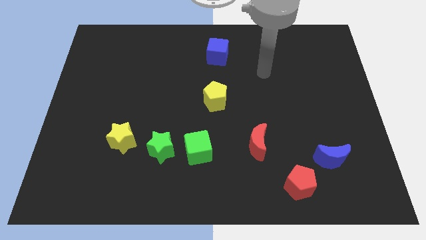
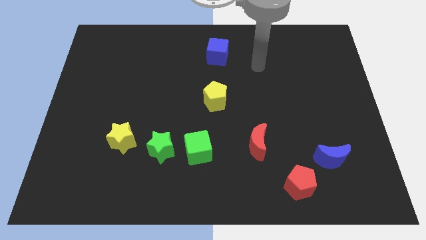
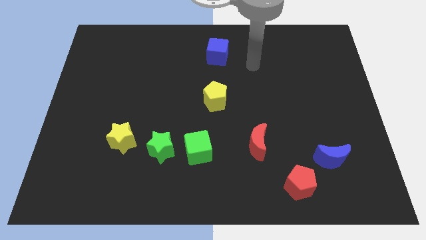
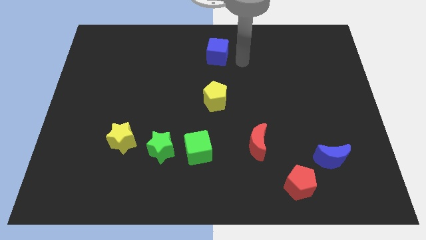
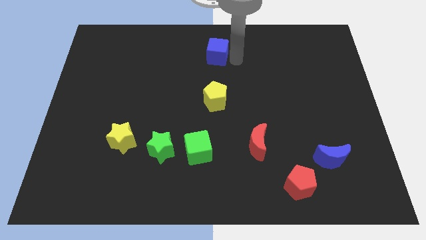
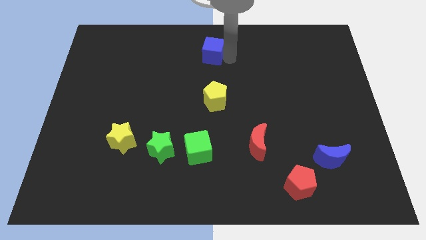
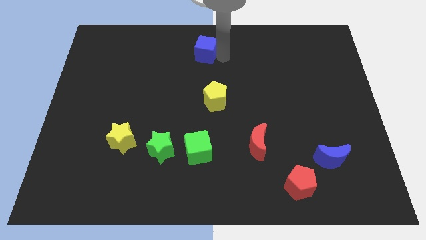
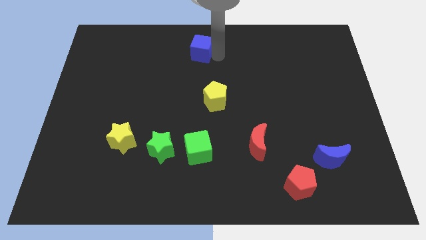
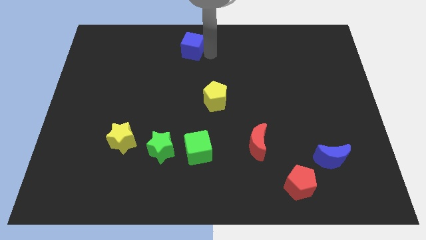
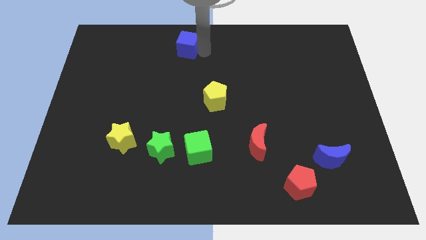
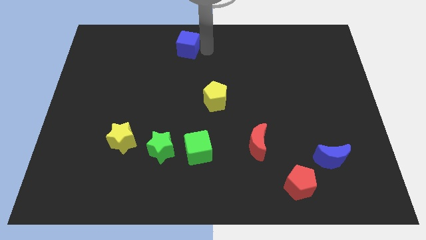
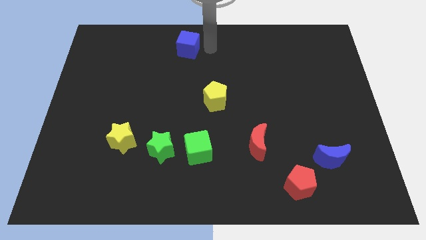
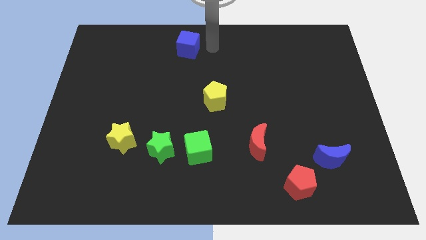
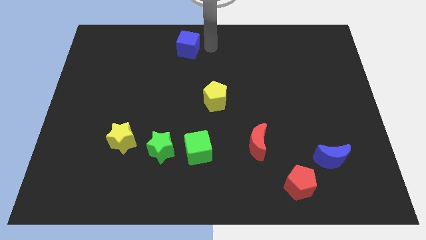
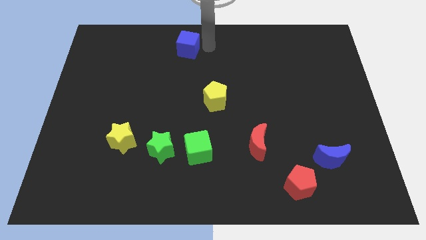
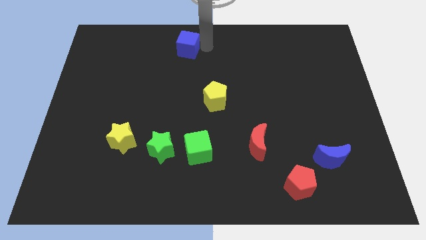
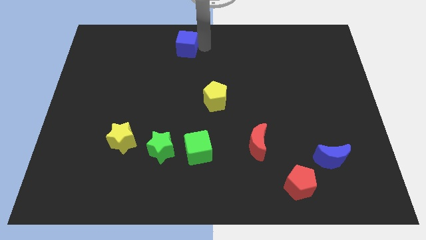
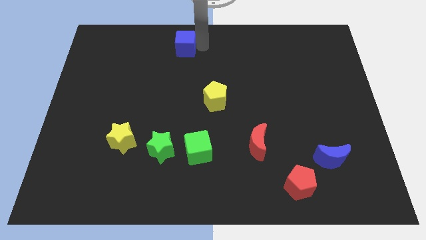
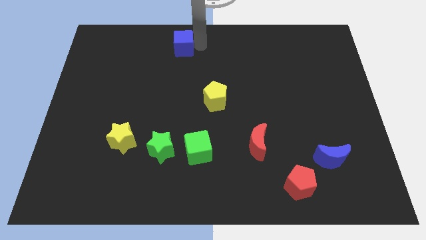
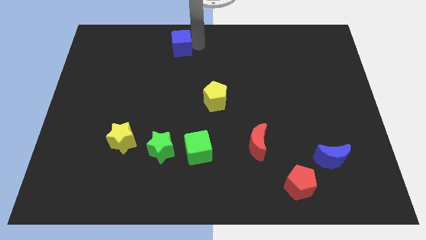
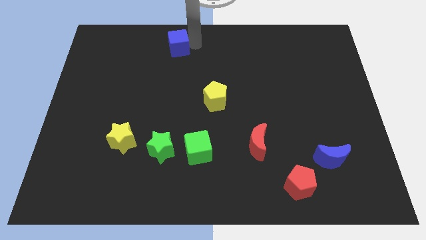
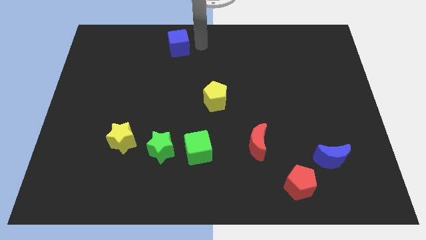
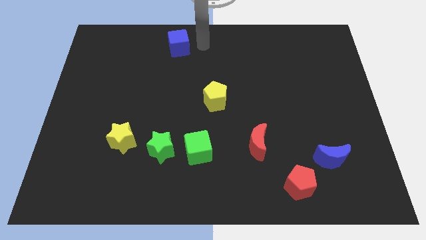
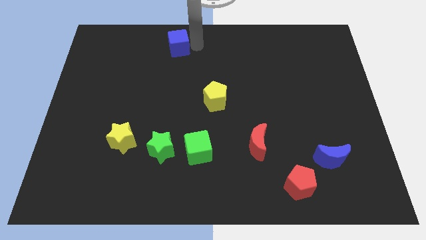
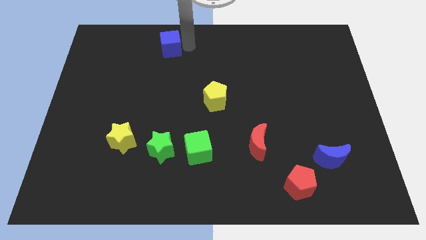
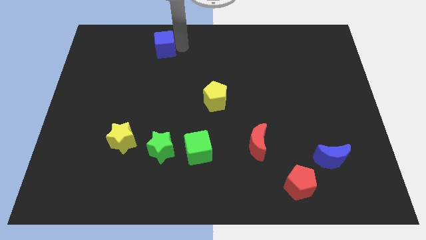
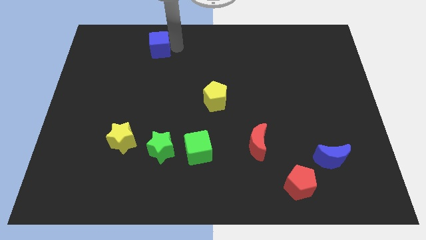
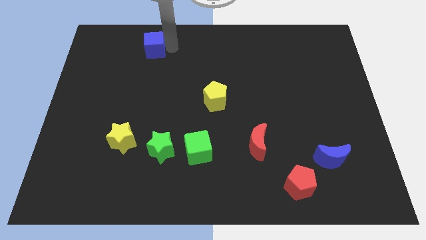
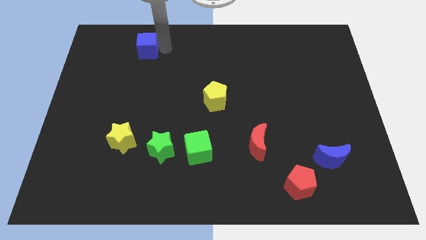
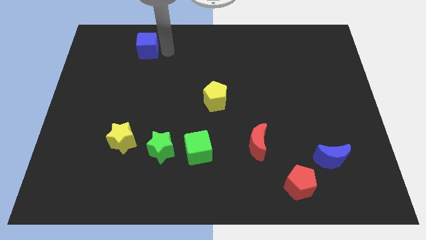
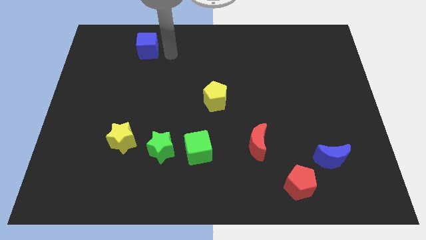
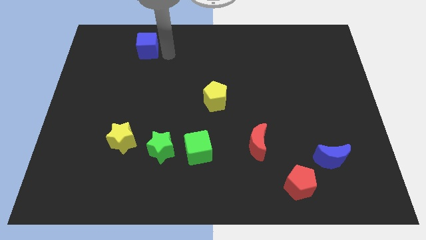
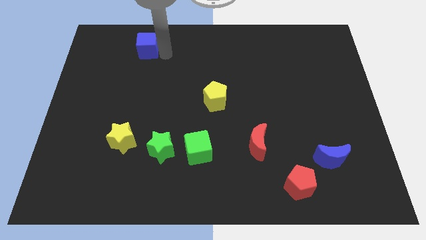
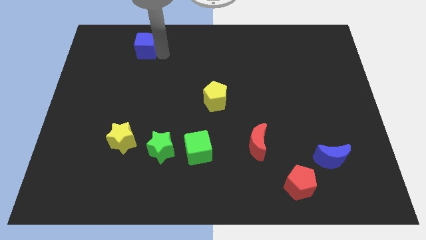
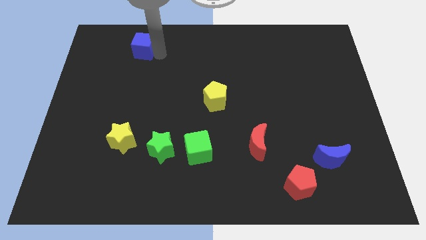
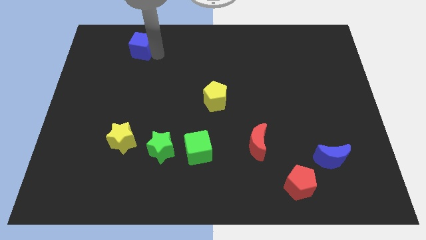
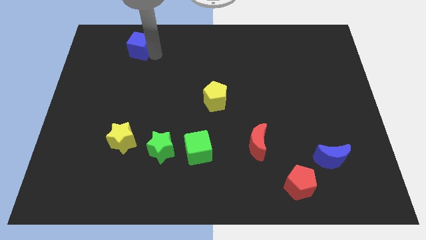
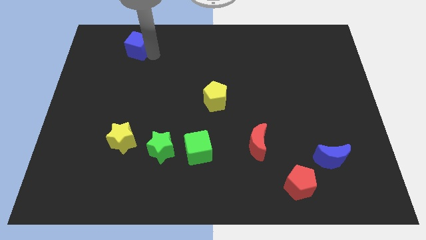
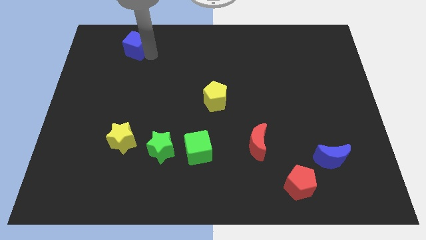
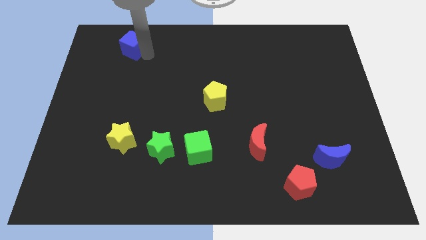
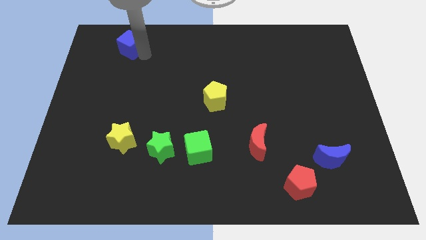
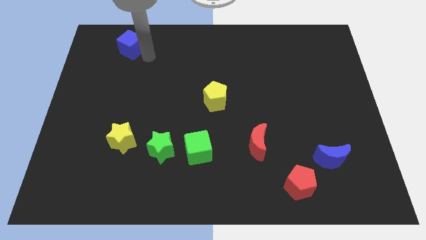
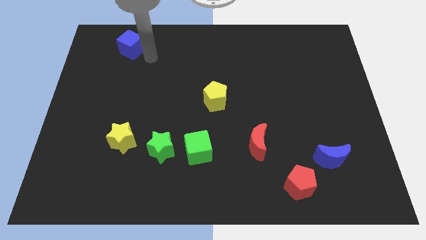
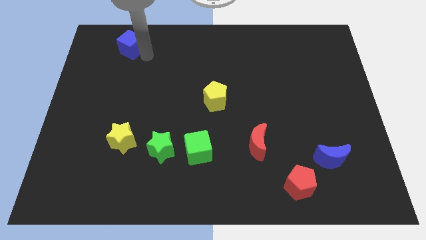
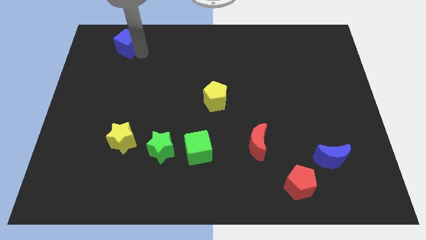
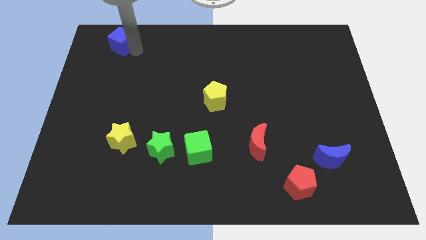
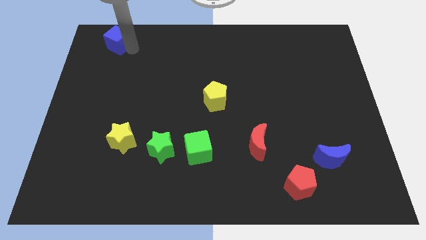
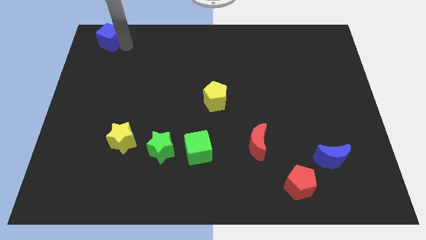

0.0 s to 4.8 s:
move the blue cube to the upper left corner

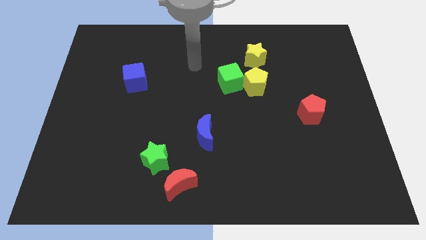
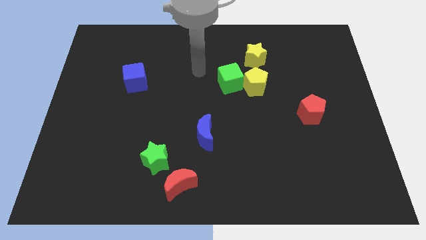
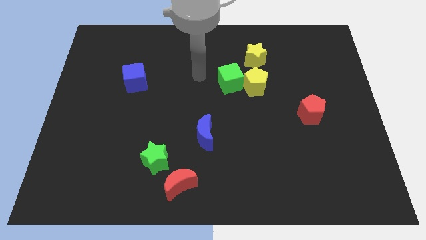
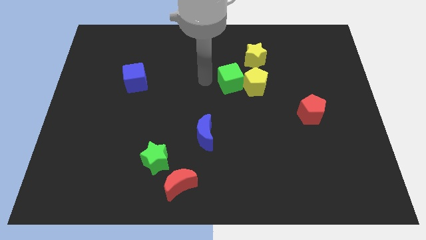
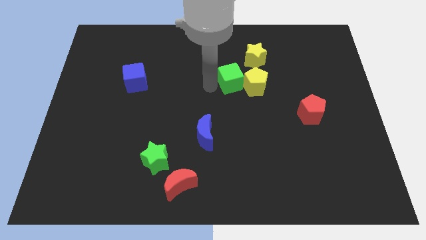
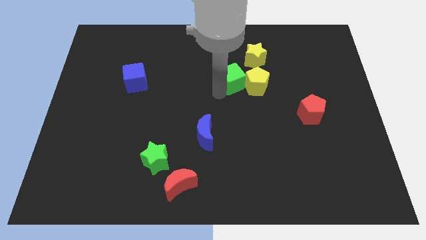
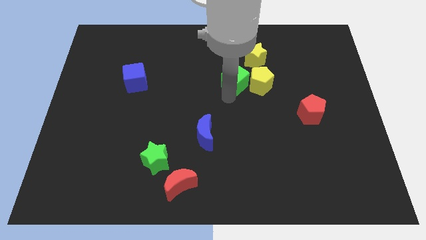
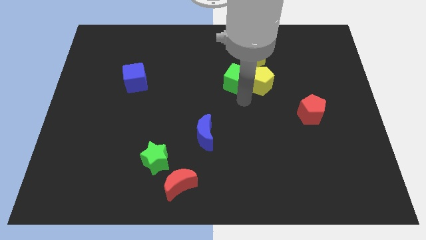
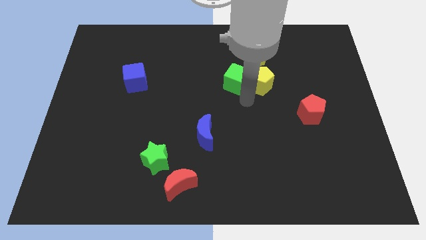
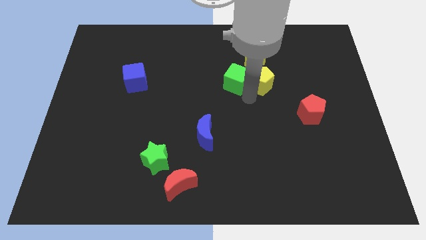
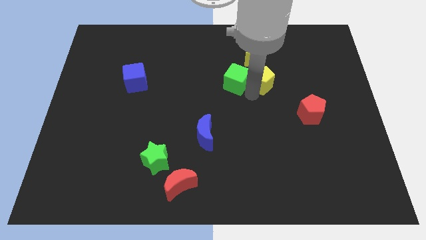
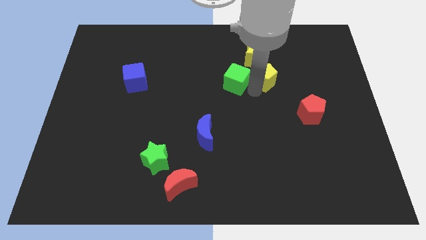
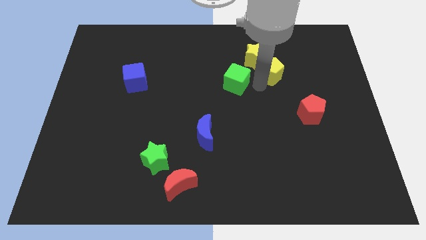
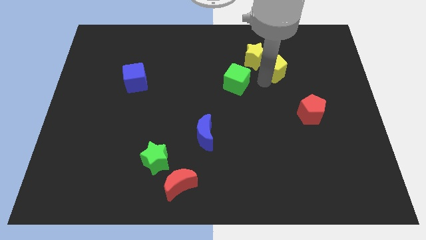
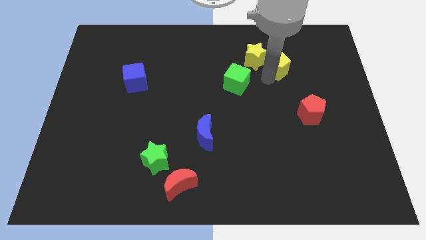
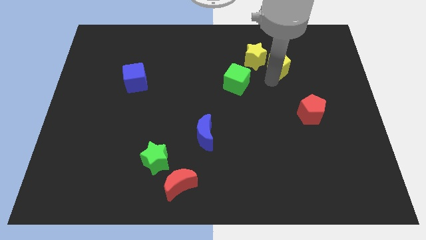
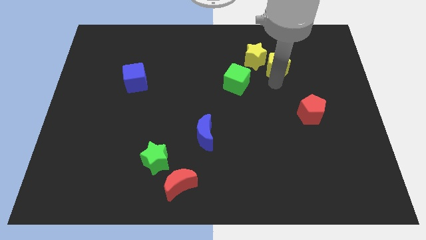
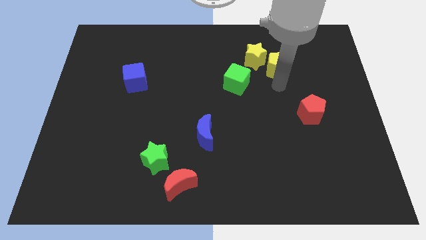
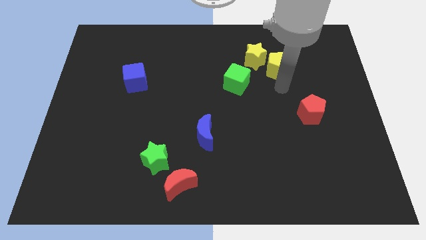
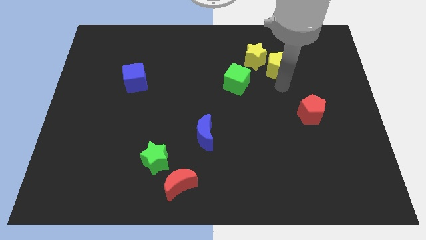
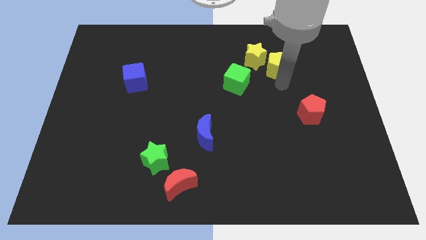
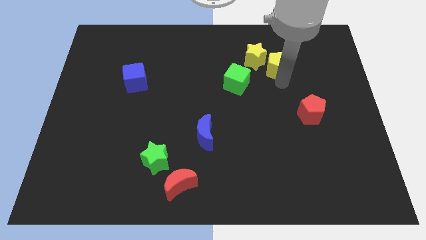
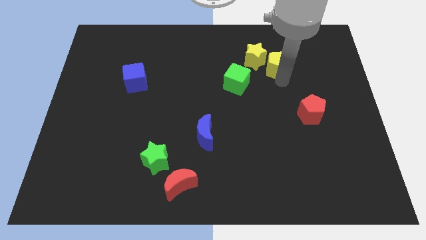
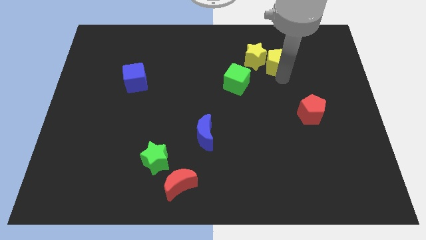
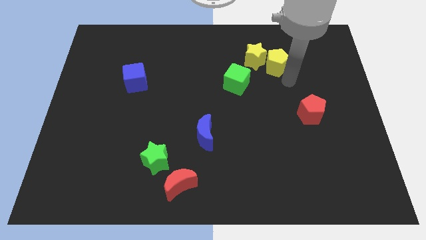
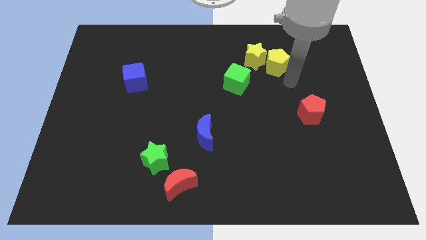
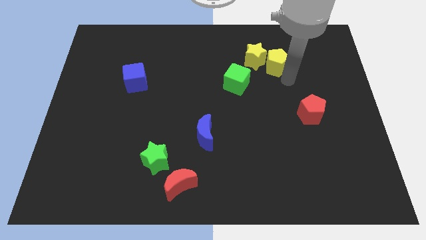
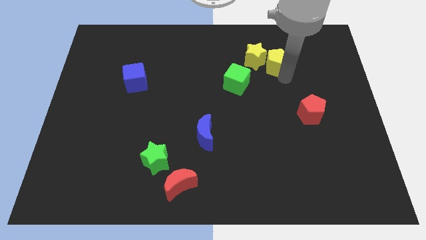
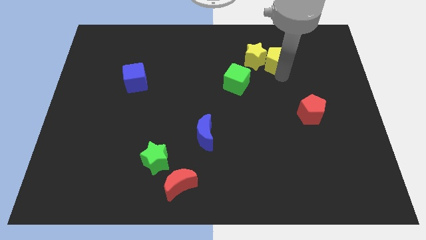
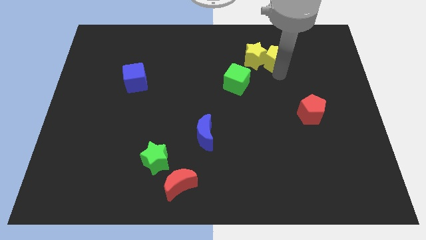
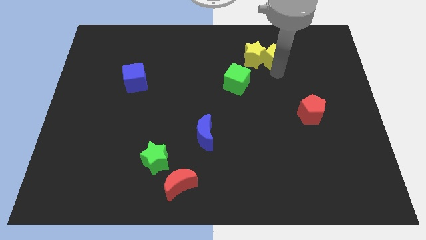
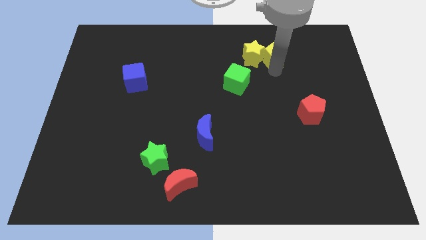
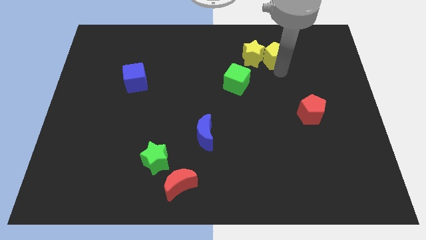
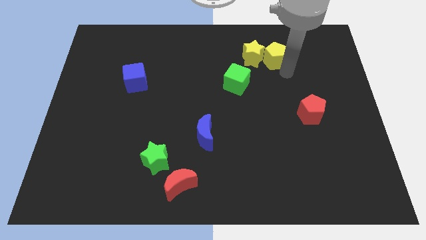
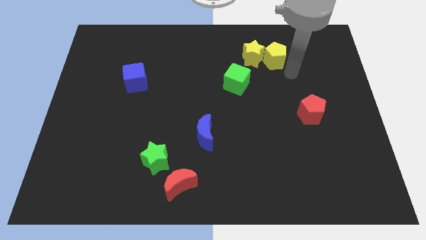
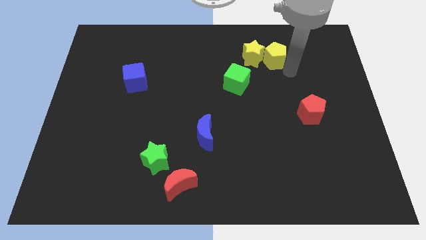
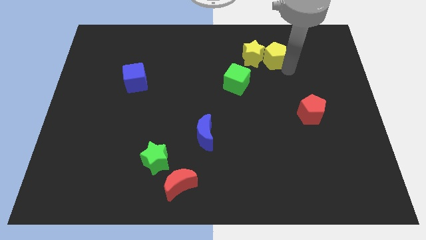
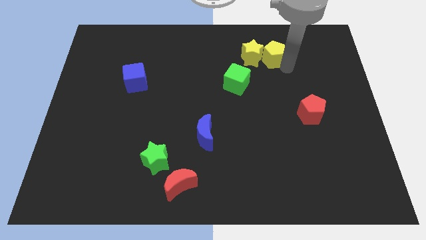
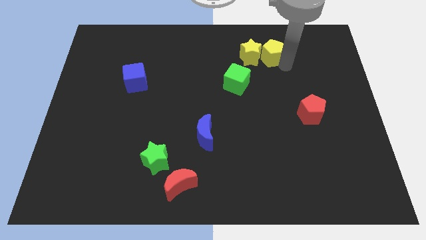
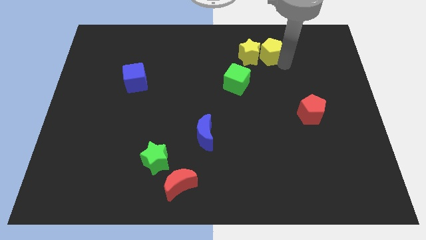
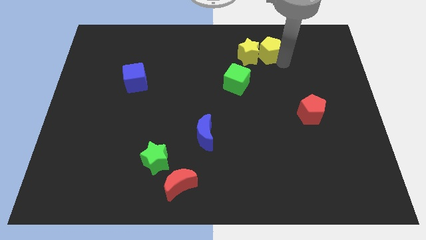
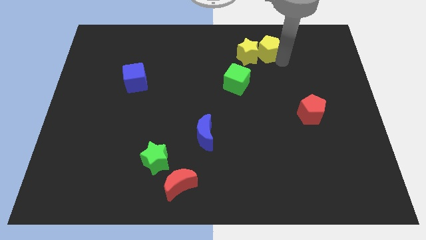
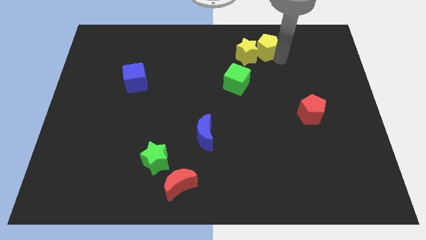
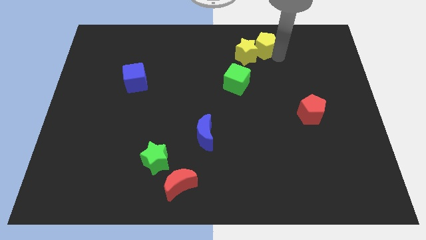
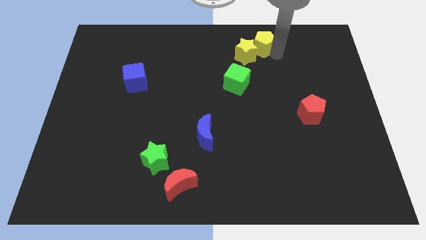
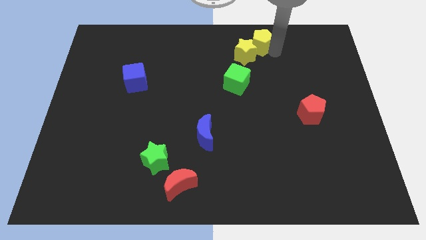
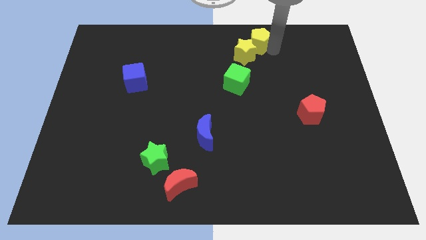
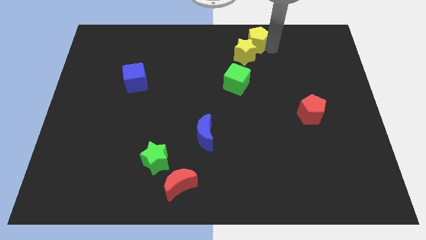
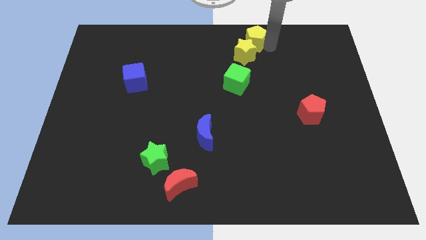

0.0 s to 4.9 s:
push the yellow pentagon to the towards your base
